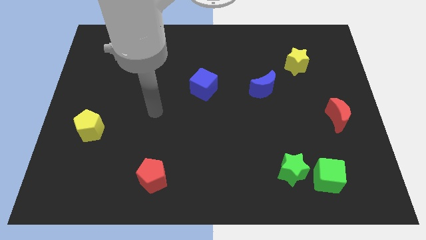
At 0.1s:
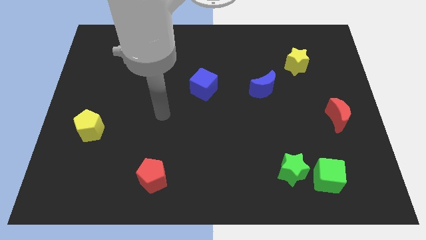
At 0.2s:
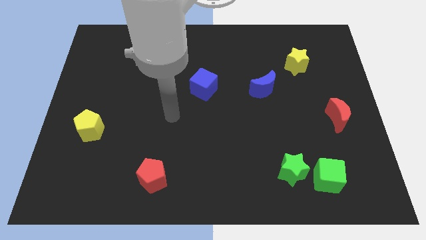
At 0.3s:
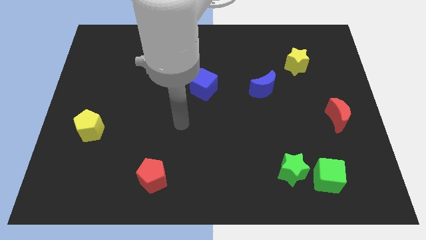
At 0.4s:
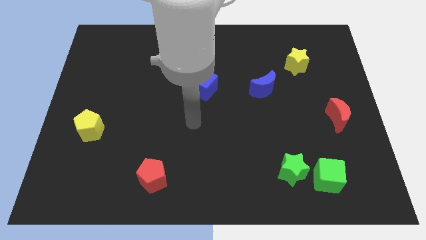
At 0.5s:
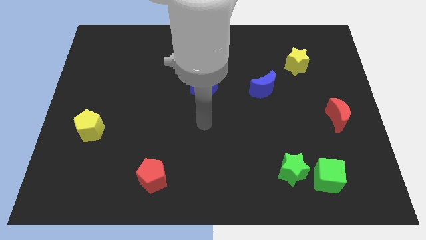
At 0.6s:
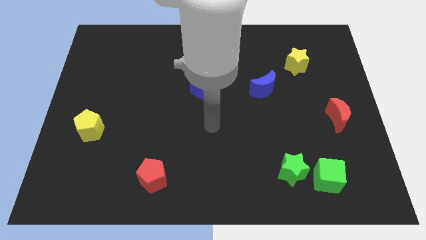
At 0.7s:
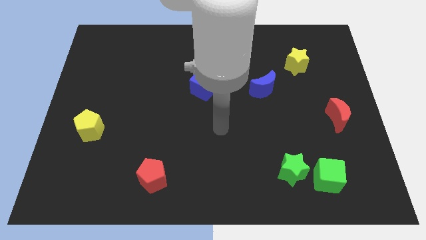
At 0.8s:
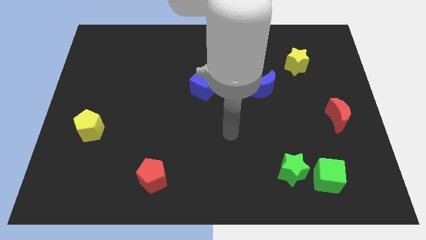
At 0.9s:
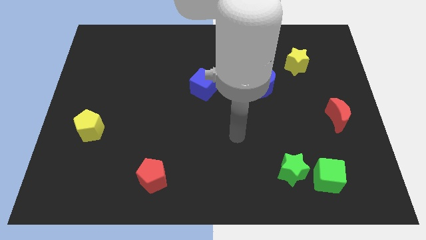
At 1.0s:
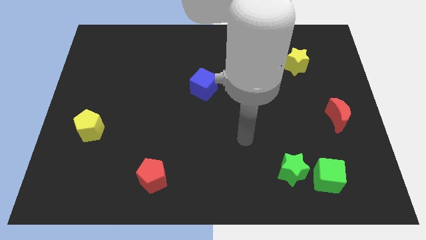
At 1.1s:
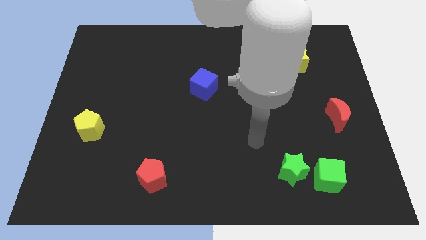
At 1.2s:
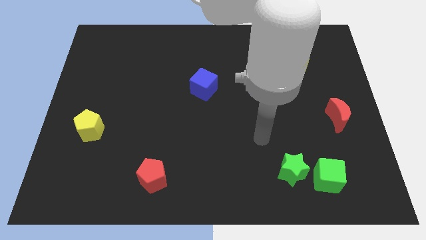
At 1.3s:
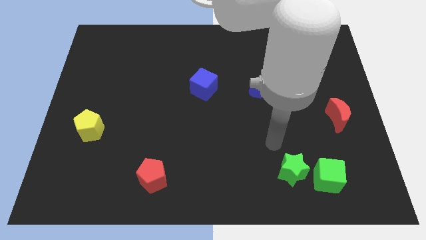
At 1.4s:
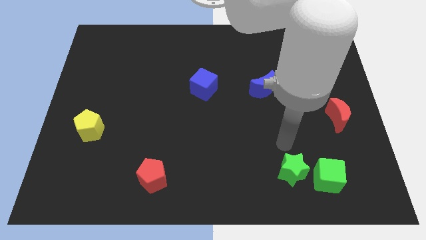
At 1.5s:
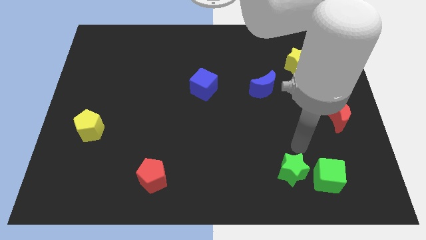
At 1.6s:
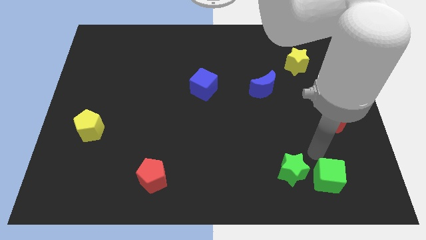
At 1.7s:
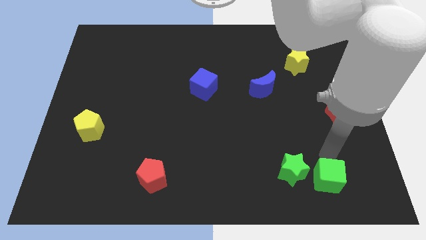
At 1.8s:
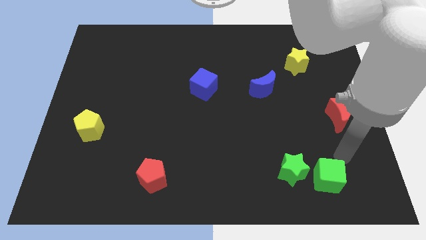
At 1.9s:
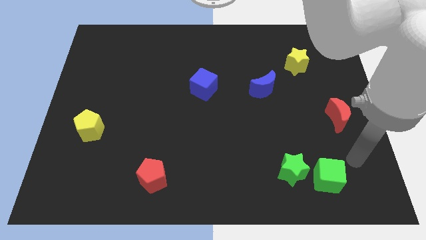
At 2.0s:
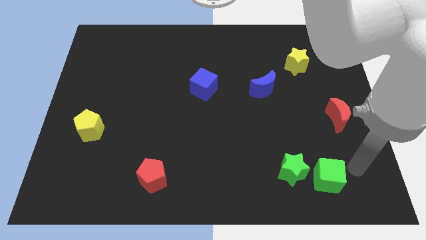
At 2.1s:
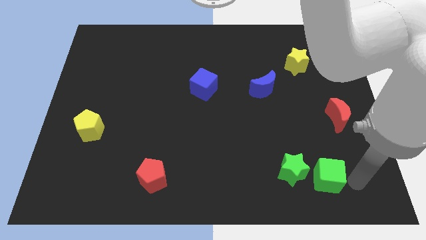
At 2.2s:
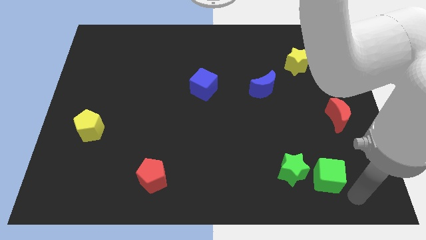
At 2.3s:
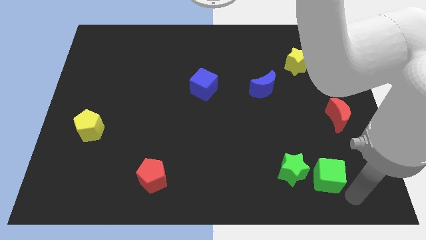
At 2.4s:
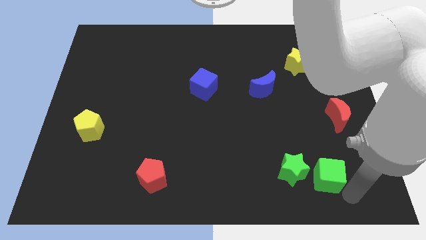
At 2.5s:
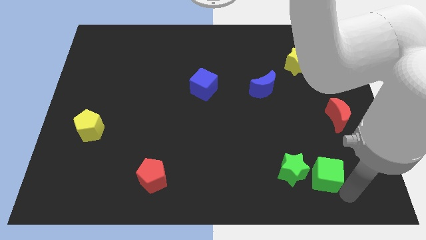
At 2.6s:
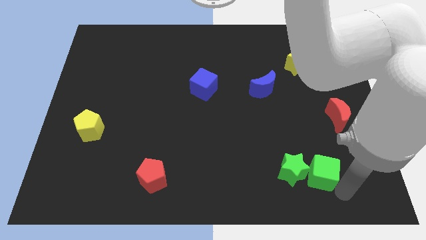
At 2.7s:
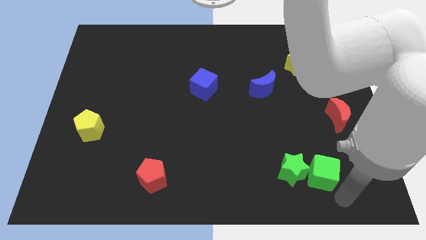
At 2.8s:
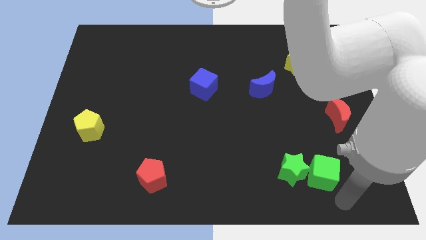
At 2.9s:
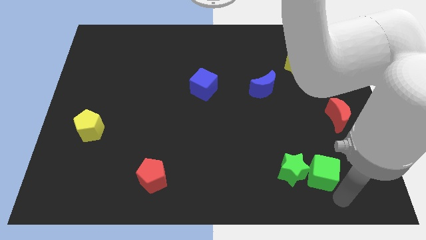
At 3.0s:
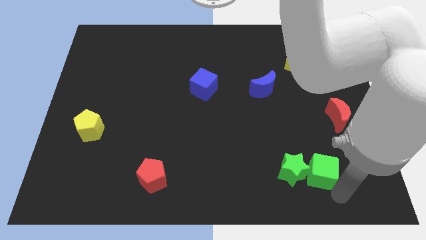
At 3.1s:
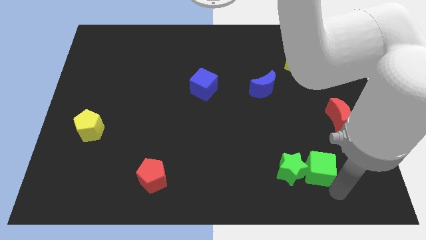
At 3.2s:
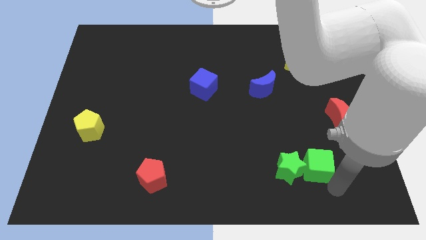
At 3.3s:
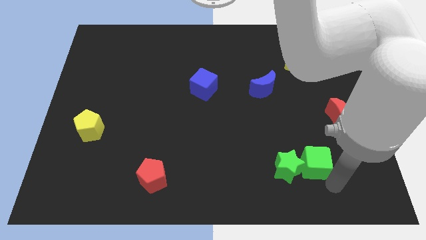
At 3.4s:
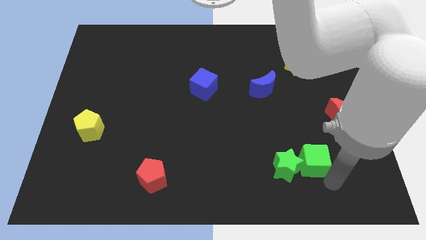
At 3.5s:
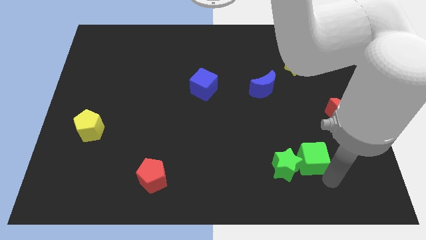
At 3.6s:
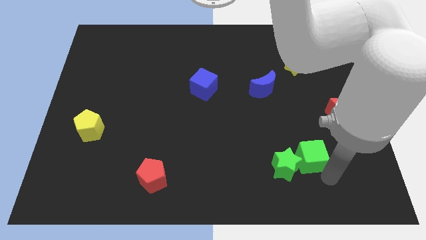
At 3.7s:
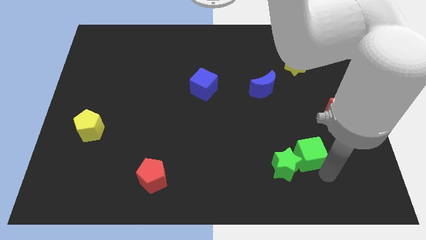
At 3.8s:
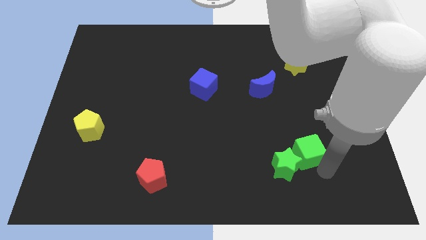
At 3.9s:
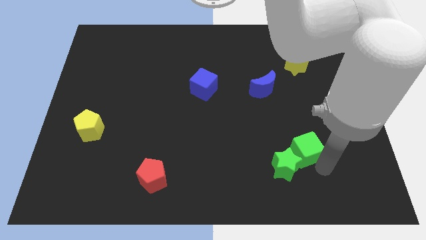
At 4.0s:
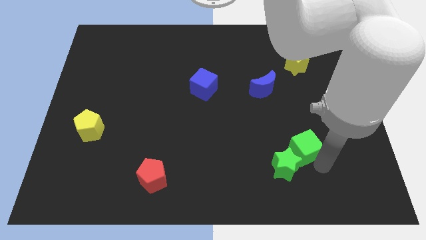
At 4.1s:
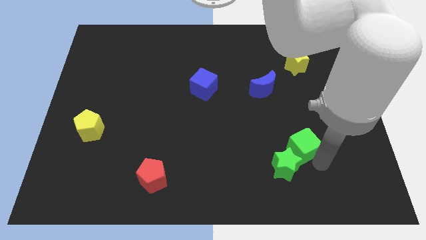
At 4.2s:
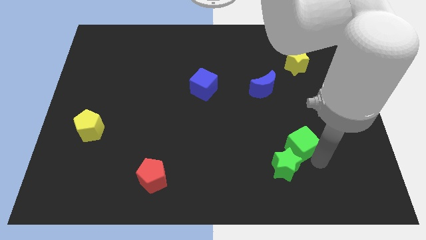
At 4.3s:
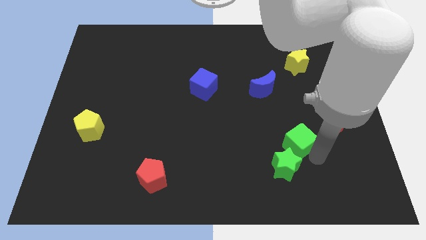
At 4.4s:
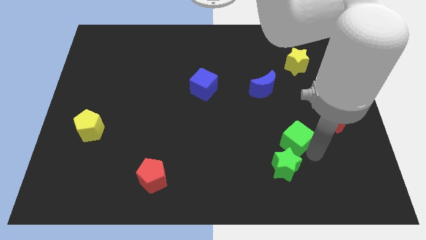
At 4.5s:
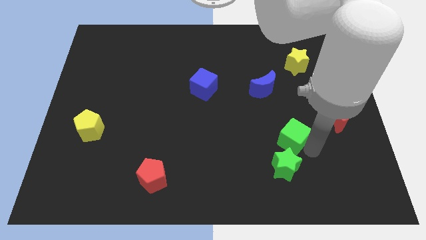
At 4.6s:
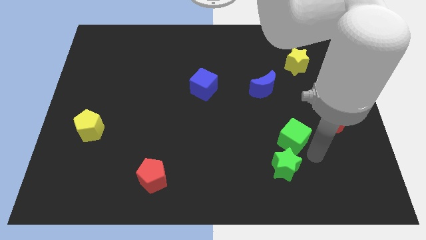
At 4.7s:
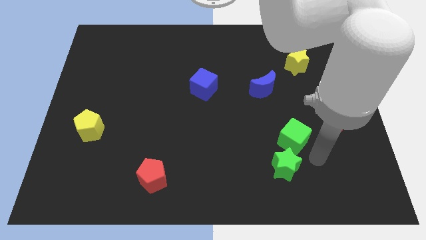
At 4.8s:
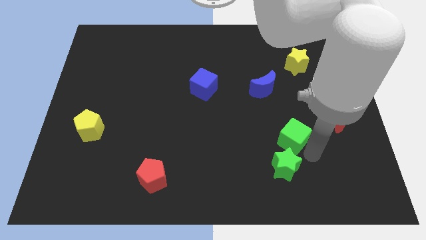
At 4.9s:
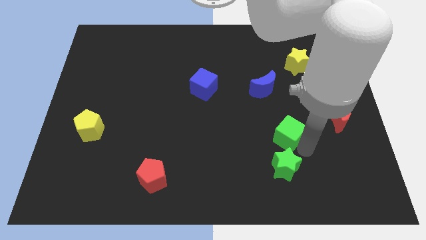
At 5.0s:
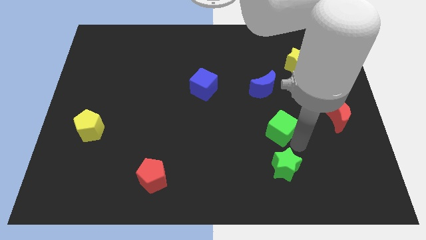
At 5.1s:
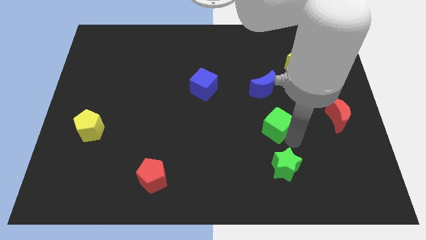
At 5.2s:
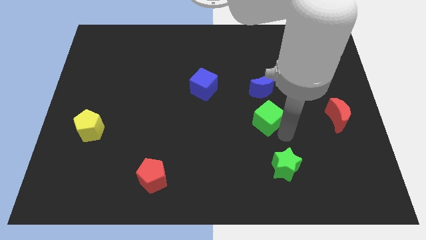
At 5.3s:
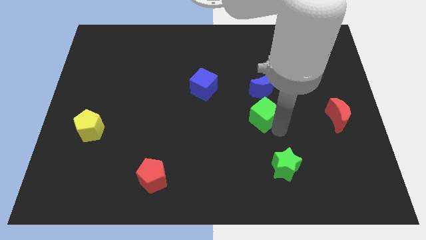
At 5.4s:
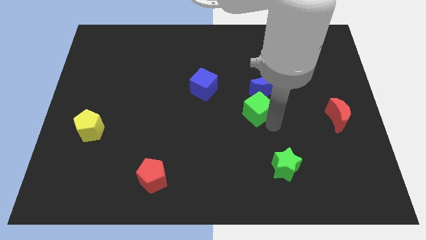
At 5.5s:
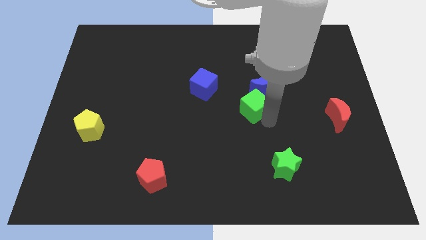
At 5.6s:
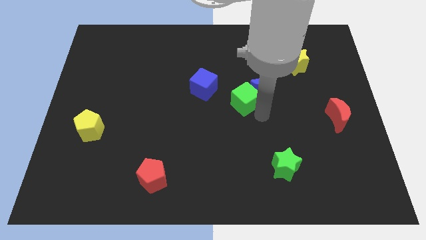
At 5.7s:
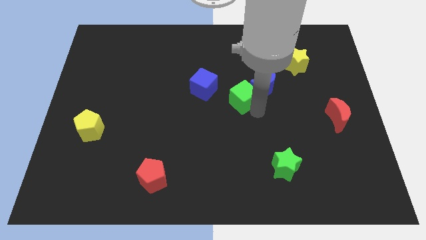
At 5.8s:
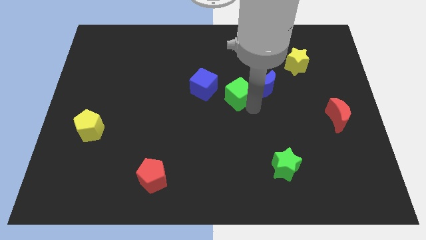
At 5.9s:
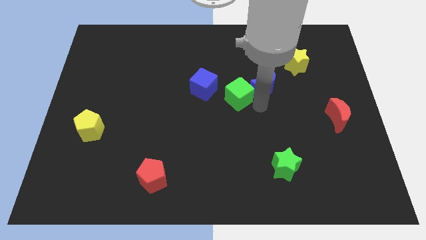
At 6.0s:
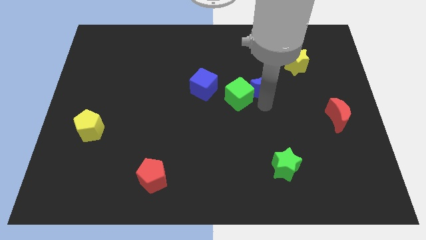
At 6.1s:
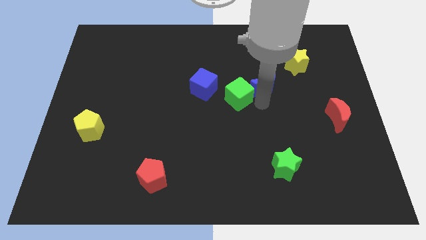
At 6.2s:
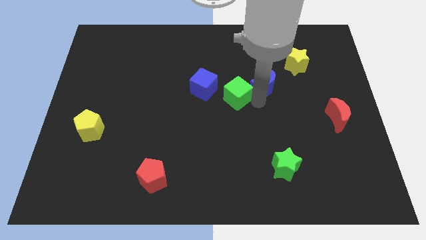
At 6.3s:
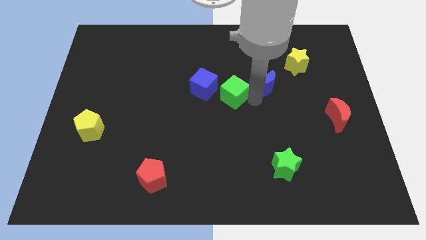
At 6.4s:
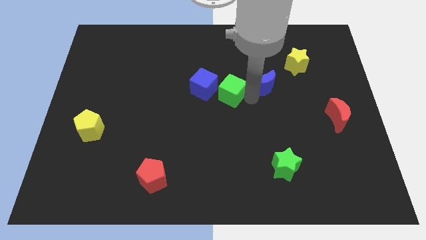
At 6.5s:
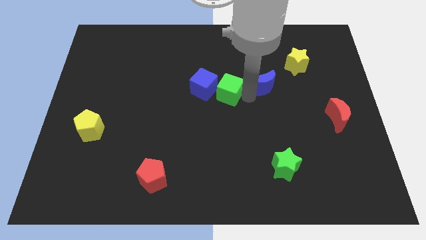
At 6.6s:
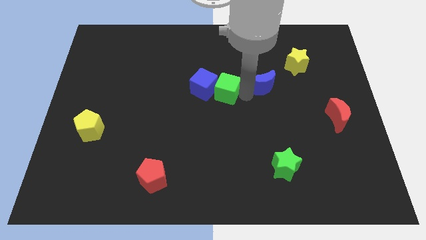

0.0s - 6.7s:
slide the green cube next to the blue cube

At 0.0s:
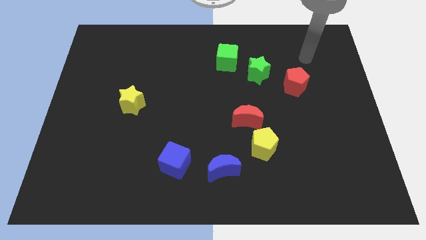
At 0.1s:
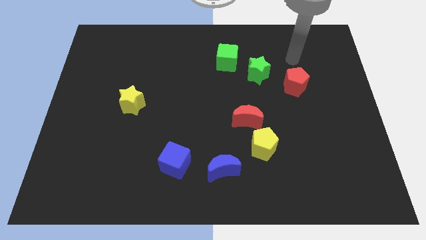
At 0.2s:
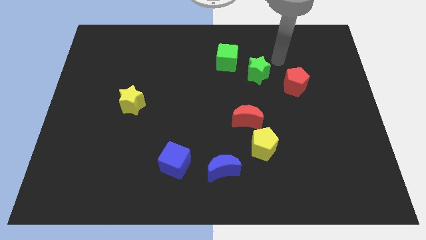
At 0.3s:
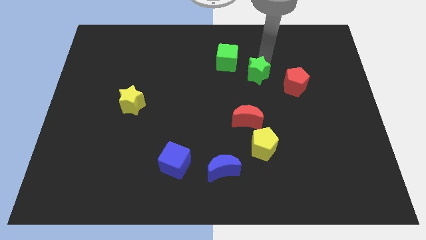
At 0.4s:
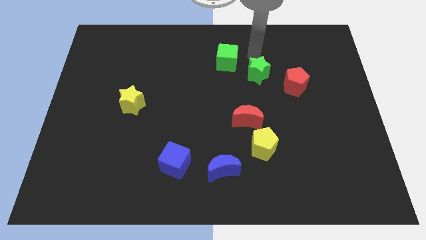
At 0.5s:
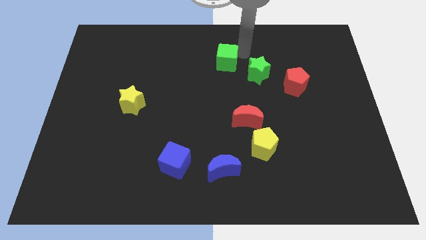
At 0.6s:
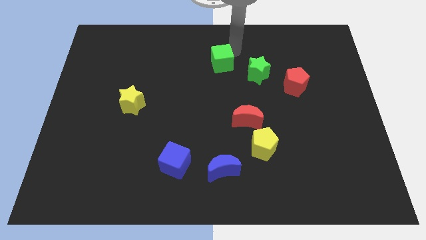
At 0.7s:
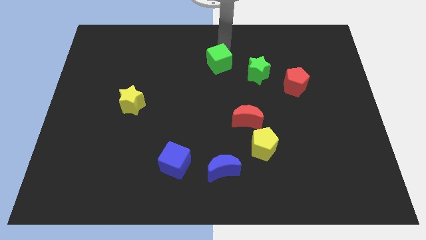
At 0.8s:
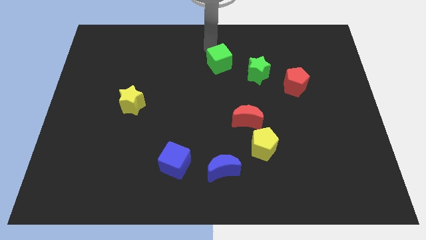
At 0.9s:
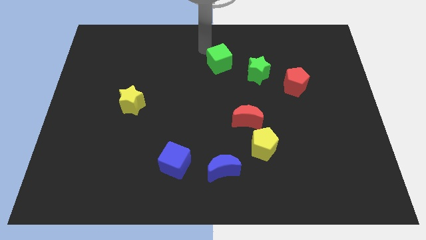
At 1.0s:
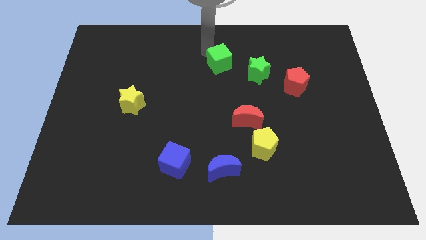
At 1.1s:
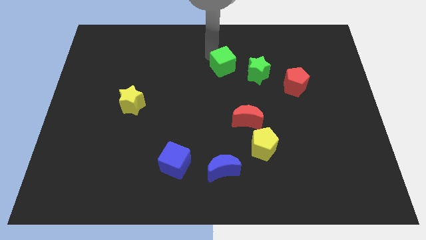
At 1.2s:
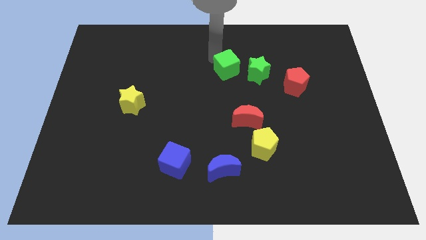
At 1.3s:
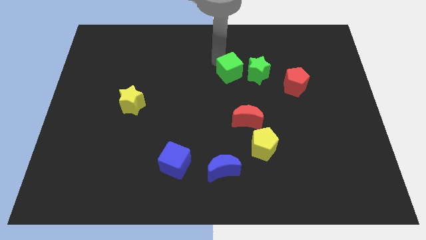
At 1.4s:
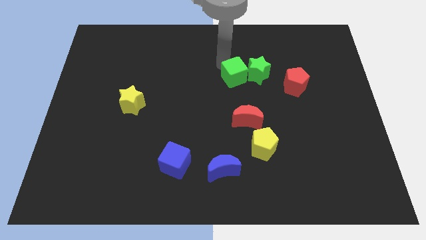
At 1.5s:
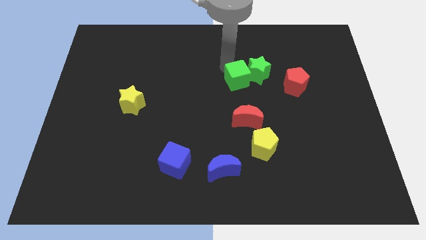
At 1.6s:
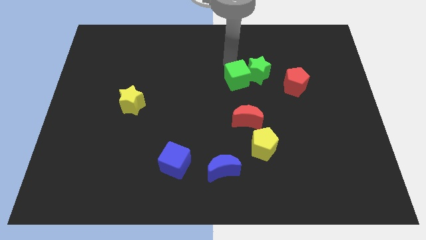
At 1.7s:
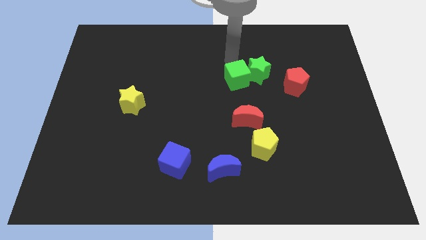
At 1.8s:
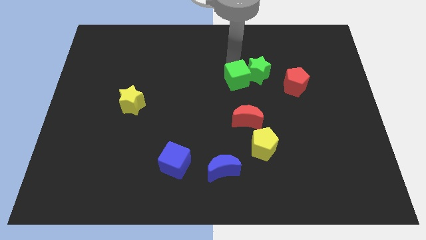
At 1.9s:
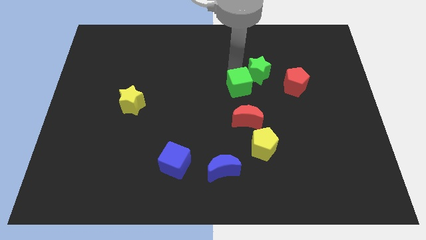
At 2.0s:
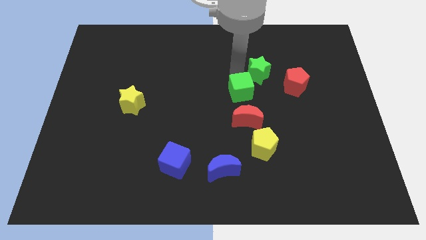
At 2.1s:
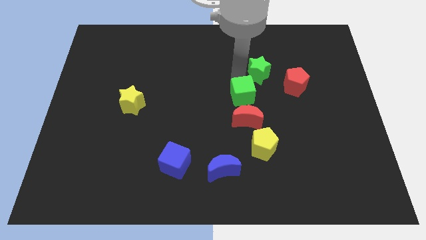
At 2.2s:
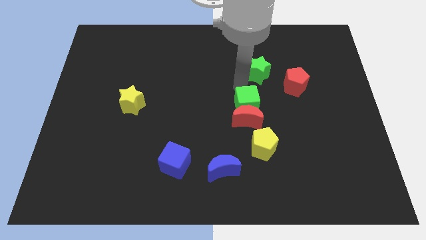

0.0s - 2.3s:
slide the green cube close to the red moon
